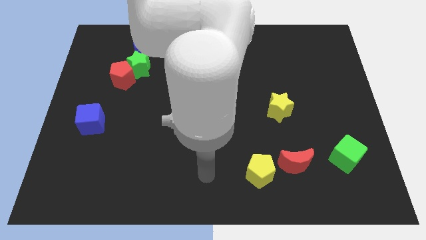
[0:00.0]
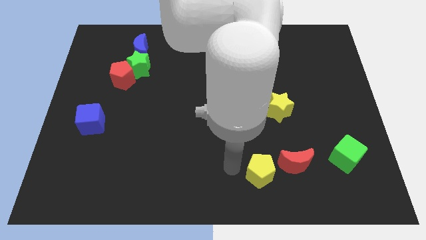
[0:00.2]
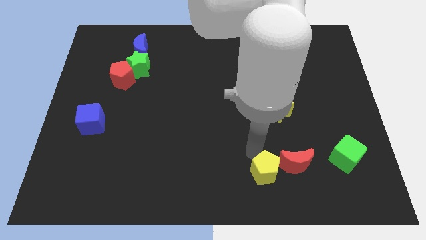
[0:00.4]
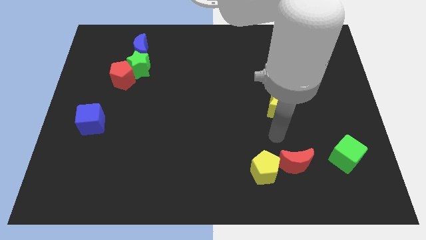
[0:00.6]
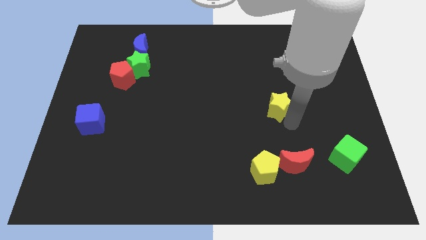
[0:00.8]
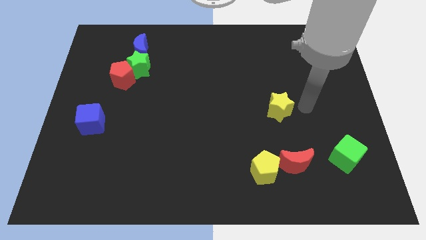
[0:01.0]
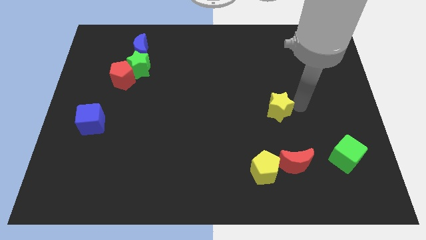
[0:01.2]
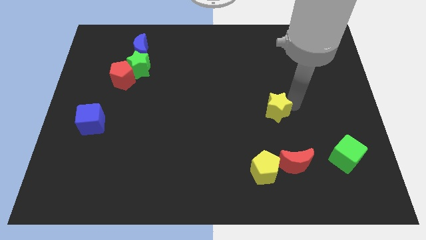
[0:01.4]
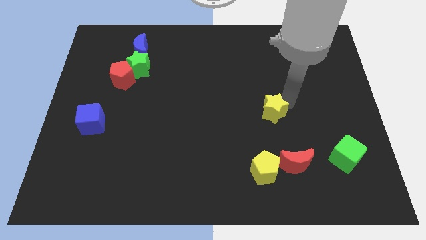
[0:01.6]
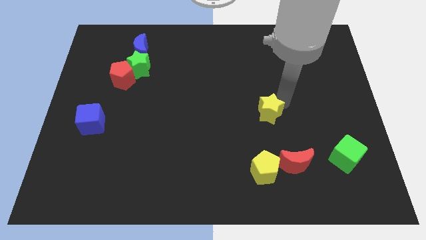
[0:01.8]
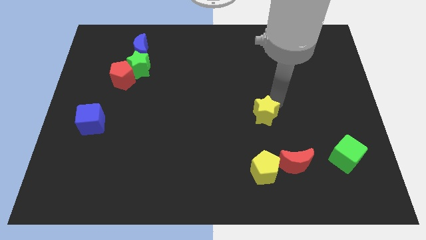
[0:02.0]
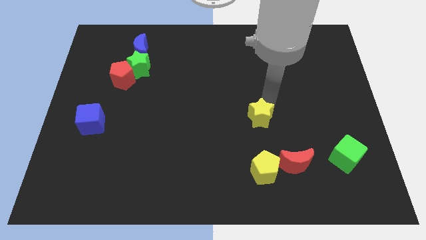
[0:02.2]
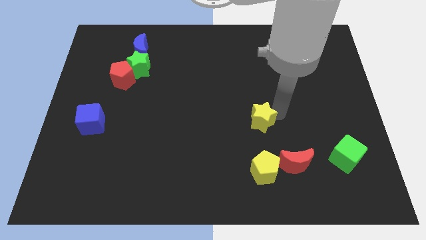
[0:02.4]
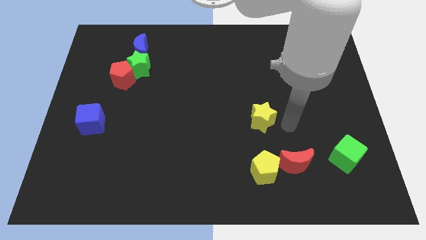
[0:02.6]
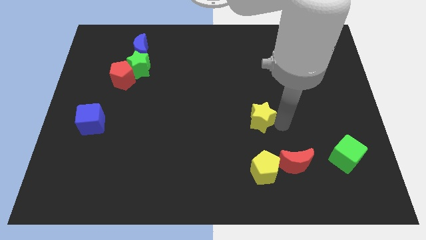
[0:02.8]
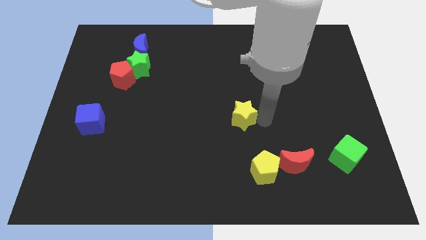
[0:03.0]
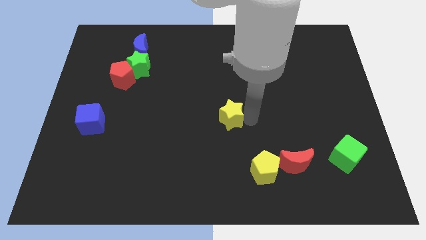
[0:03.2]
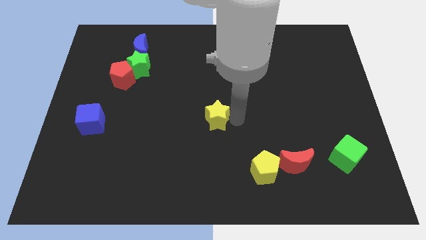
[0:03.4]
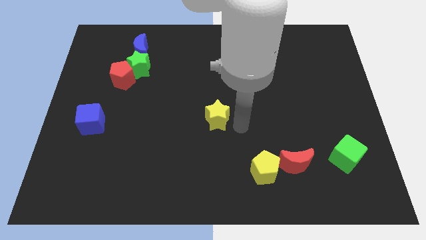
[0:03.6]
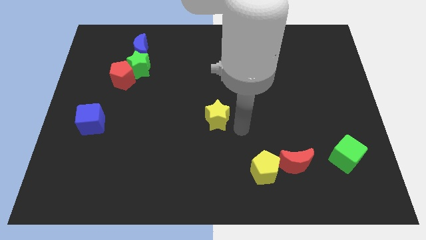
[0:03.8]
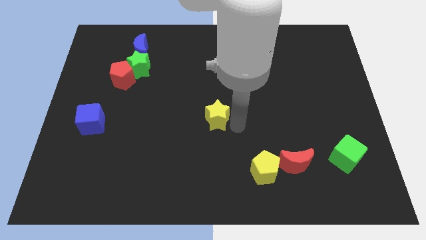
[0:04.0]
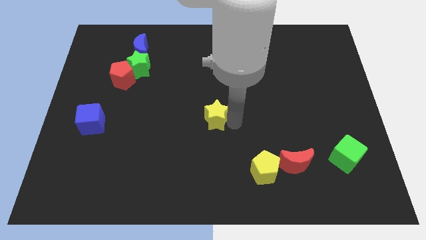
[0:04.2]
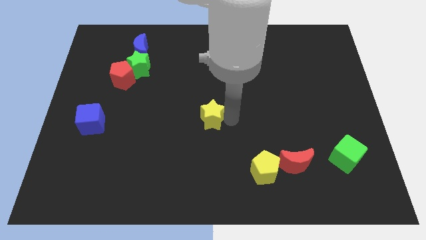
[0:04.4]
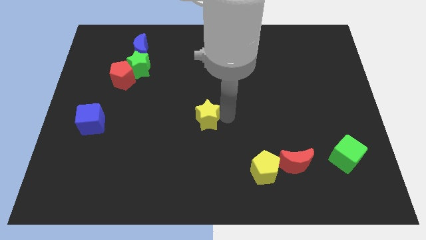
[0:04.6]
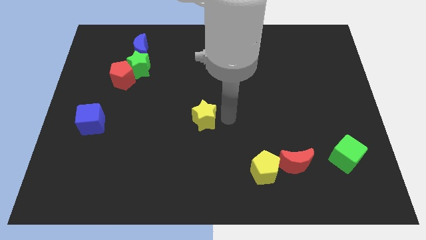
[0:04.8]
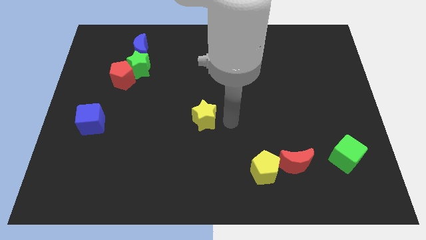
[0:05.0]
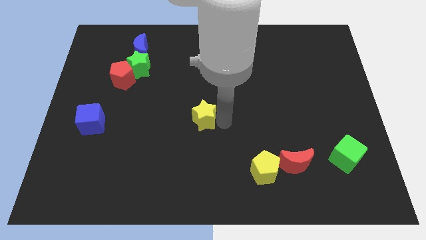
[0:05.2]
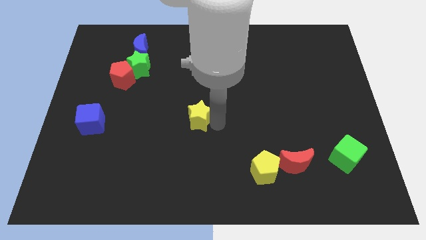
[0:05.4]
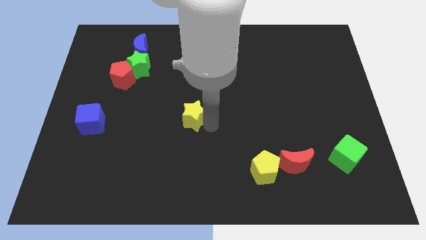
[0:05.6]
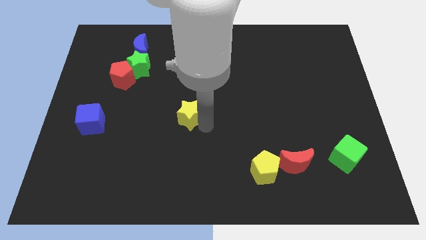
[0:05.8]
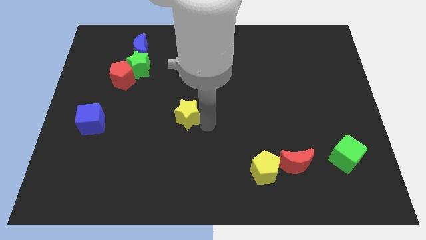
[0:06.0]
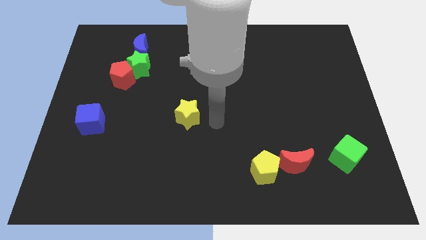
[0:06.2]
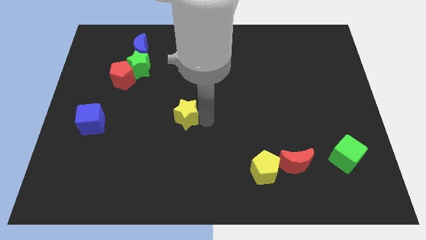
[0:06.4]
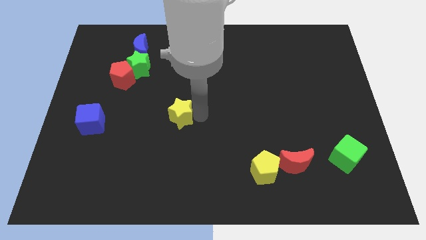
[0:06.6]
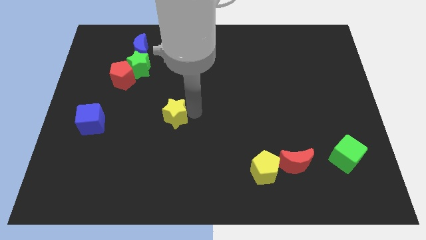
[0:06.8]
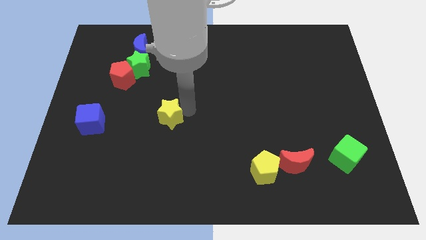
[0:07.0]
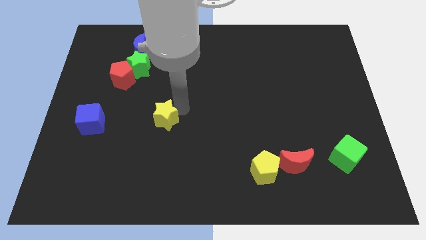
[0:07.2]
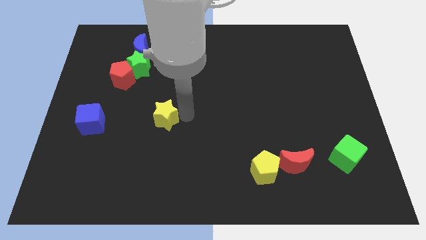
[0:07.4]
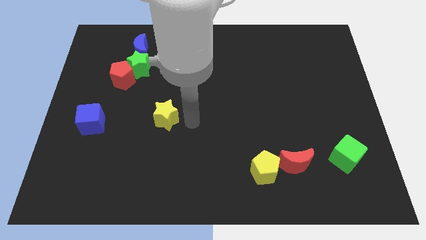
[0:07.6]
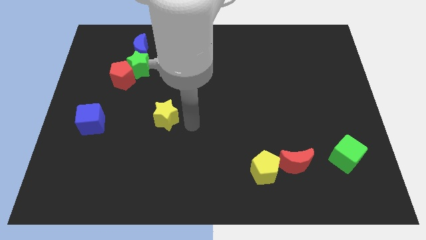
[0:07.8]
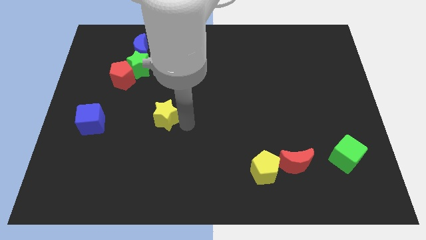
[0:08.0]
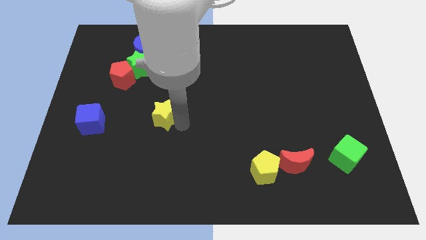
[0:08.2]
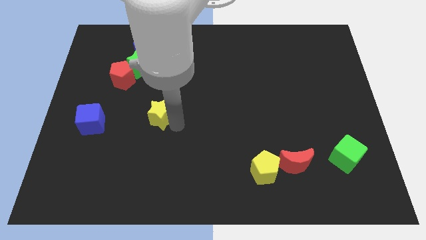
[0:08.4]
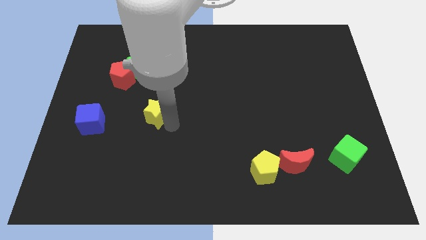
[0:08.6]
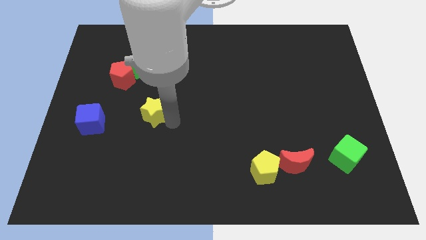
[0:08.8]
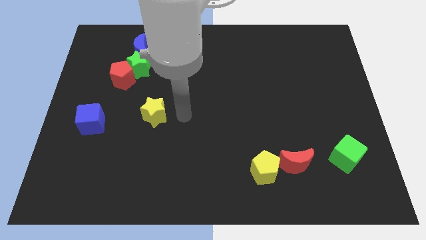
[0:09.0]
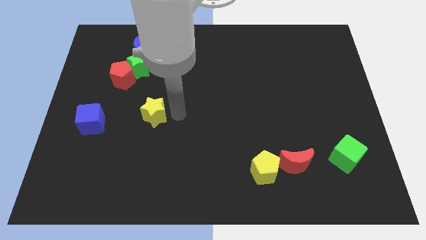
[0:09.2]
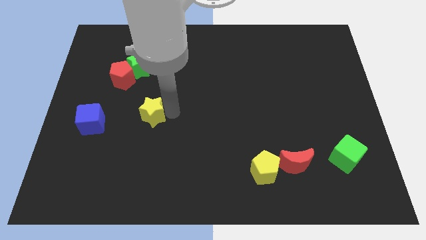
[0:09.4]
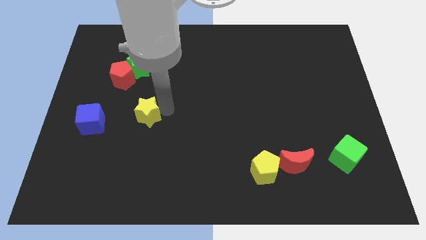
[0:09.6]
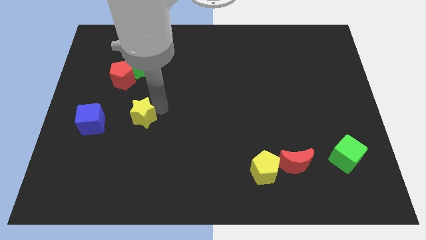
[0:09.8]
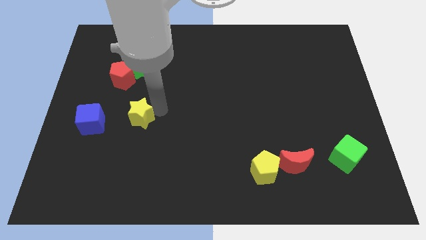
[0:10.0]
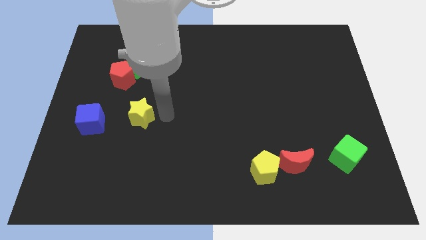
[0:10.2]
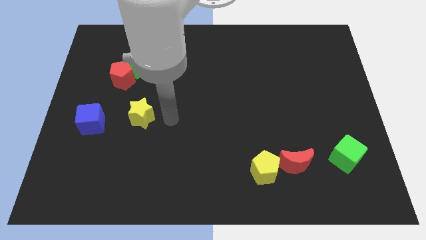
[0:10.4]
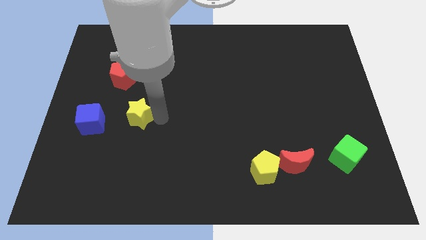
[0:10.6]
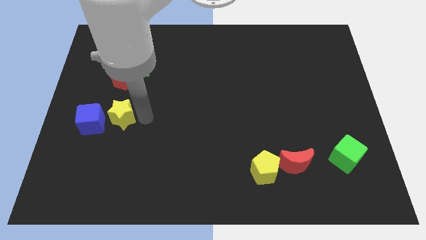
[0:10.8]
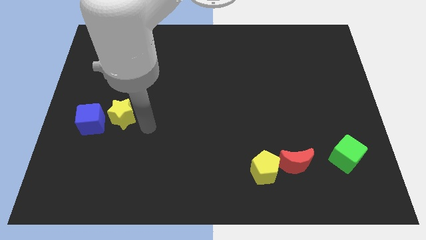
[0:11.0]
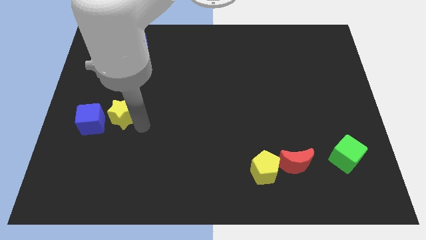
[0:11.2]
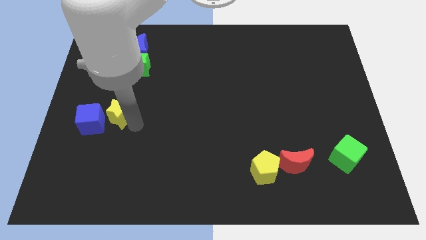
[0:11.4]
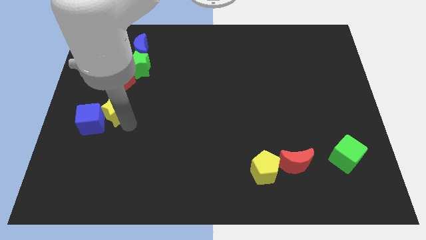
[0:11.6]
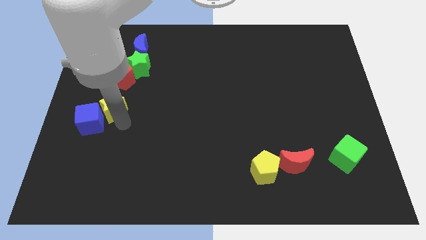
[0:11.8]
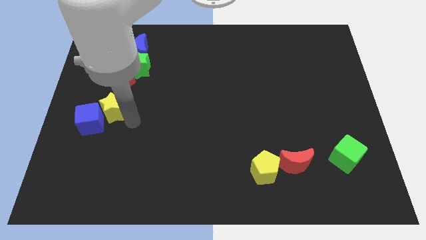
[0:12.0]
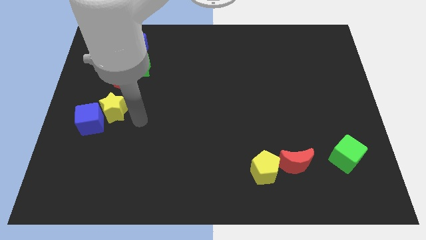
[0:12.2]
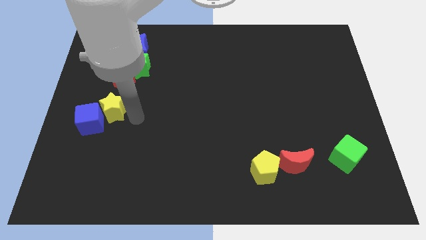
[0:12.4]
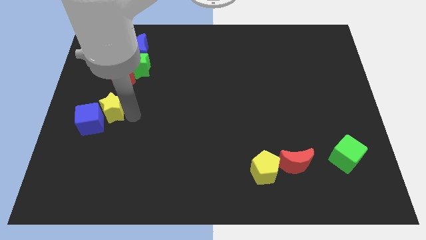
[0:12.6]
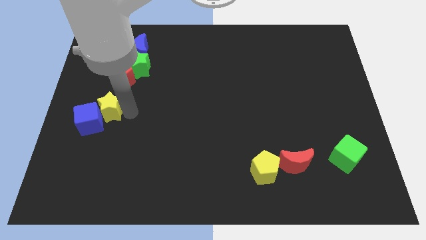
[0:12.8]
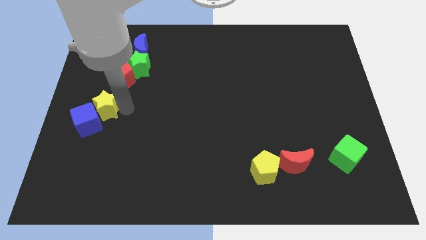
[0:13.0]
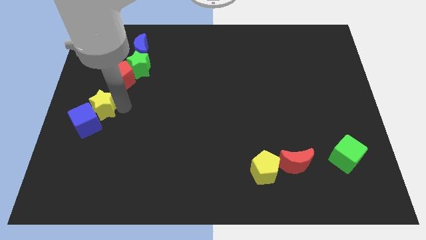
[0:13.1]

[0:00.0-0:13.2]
push the yellow star to the center left
